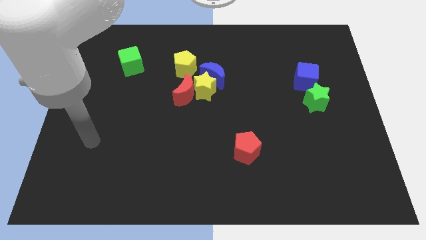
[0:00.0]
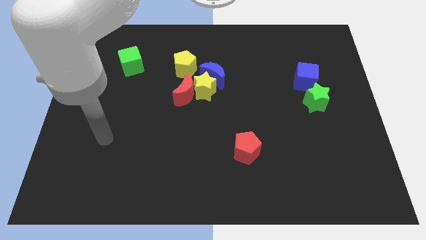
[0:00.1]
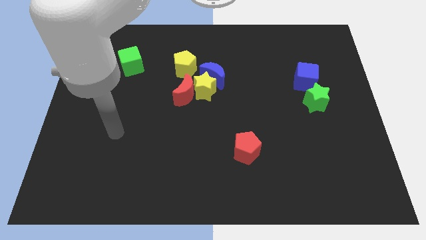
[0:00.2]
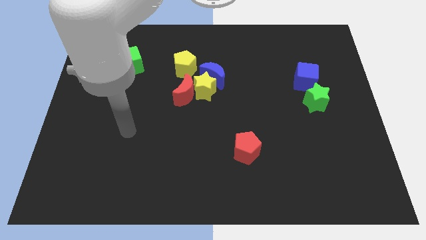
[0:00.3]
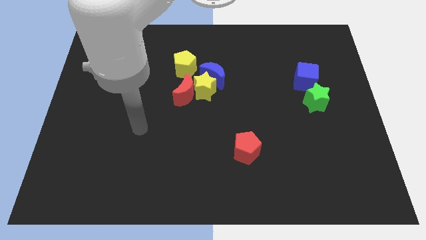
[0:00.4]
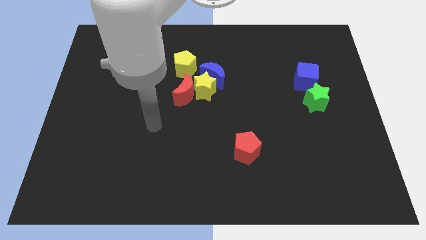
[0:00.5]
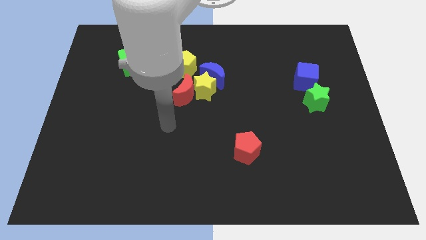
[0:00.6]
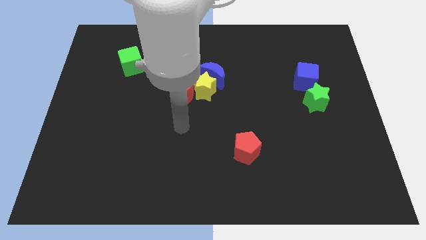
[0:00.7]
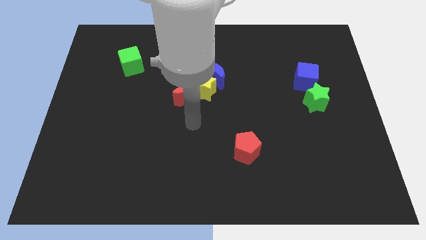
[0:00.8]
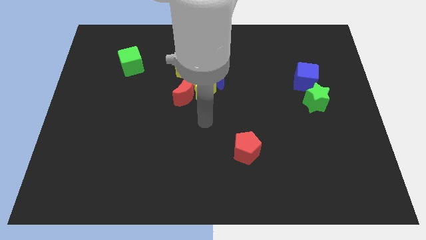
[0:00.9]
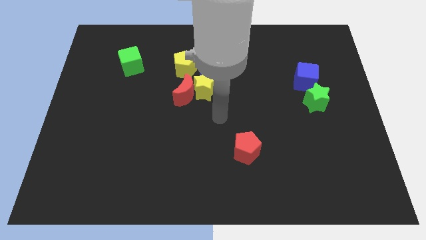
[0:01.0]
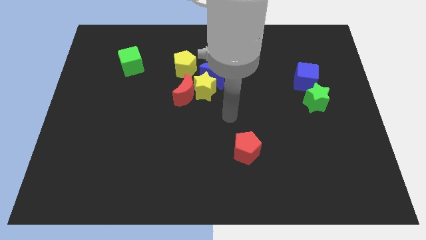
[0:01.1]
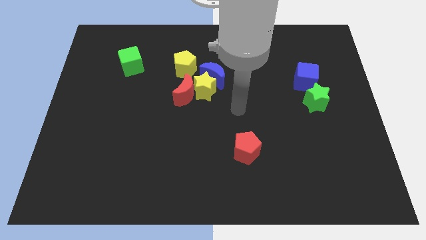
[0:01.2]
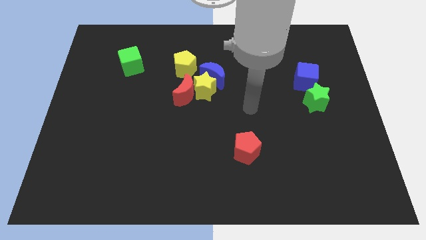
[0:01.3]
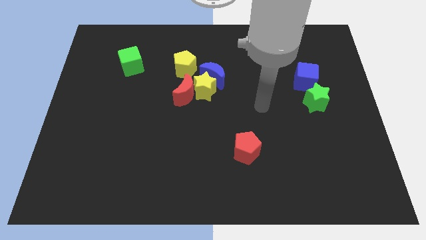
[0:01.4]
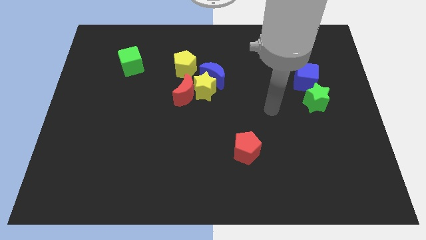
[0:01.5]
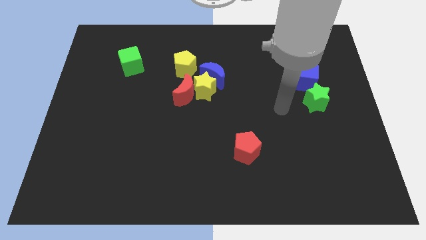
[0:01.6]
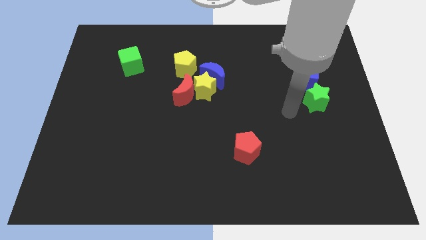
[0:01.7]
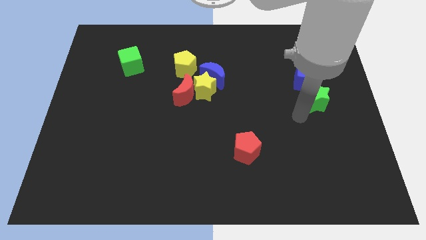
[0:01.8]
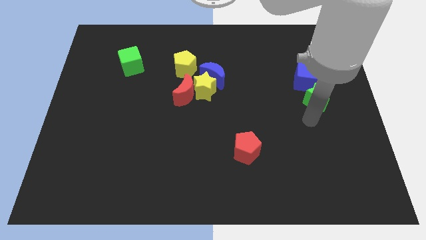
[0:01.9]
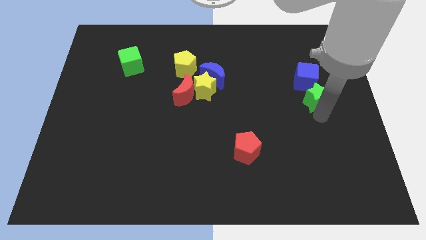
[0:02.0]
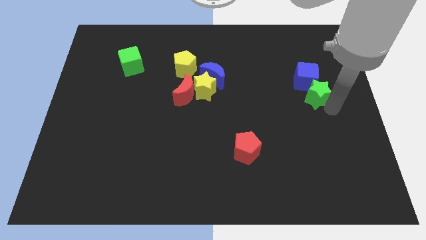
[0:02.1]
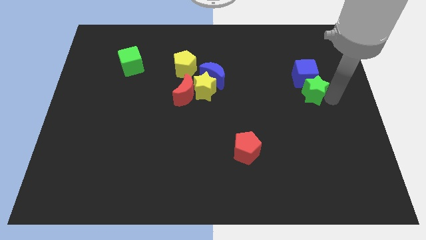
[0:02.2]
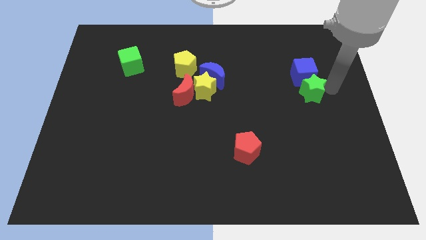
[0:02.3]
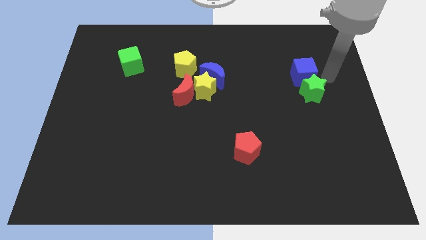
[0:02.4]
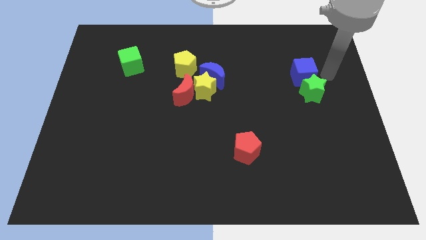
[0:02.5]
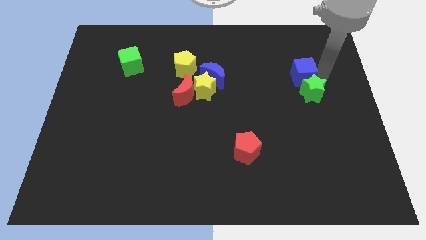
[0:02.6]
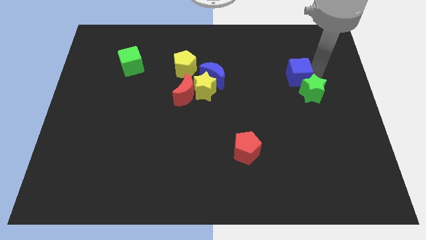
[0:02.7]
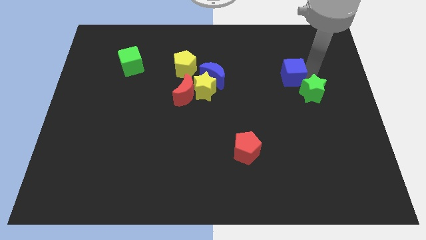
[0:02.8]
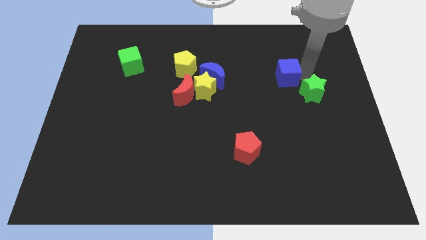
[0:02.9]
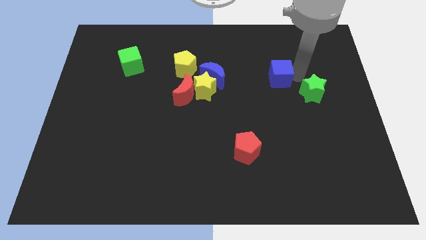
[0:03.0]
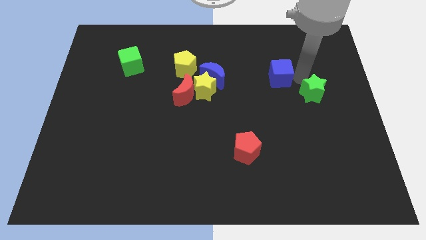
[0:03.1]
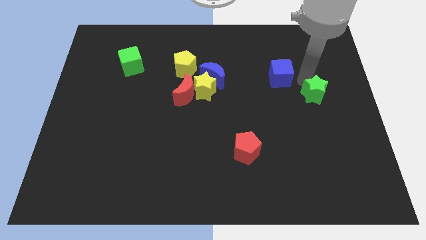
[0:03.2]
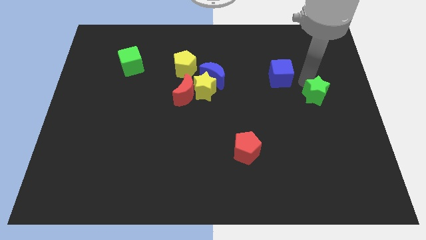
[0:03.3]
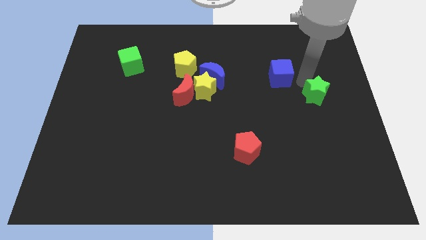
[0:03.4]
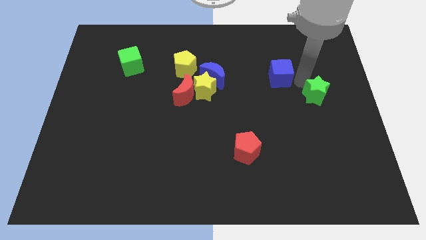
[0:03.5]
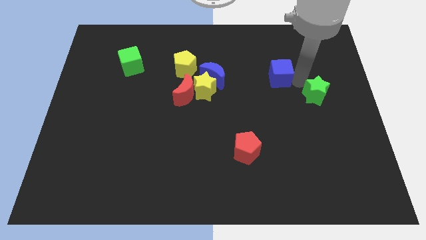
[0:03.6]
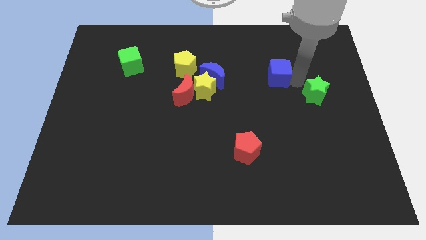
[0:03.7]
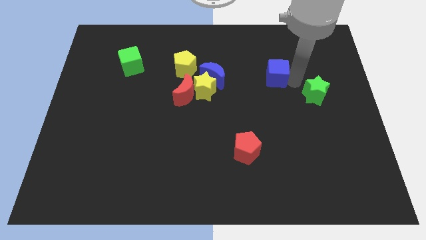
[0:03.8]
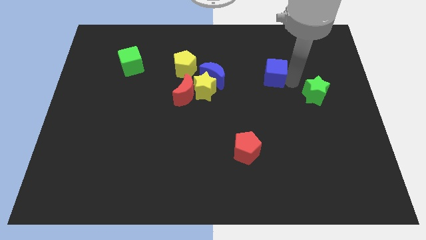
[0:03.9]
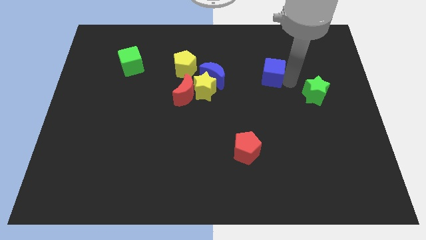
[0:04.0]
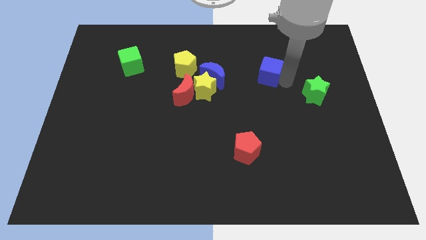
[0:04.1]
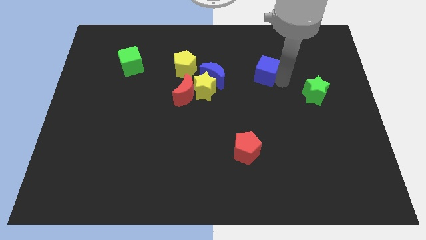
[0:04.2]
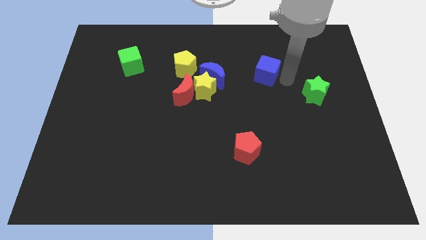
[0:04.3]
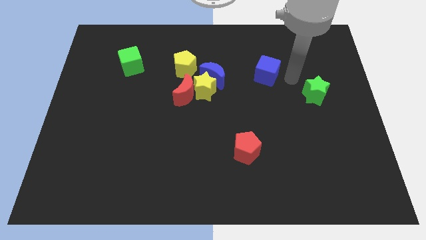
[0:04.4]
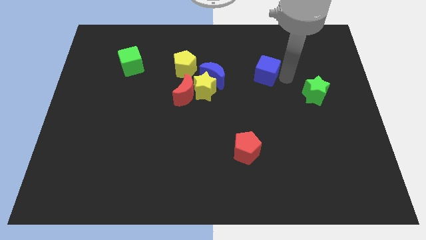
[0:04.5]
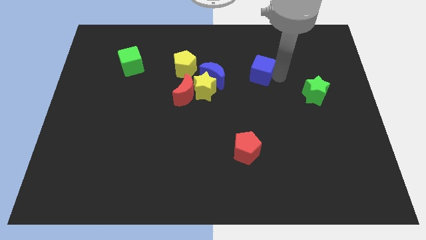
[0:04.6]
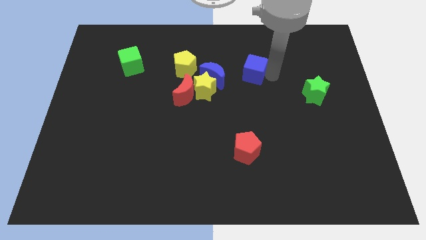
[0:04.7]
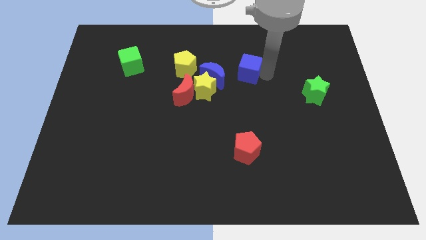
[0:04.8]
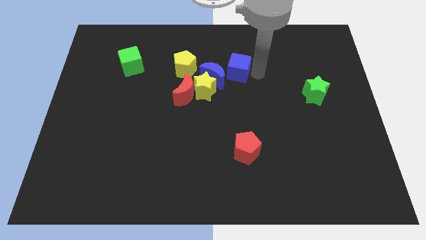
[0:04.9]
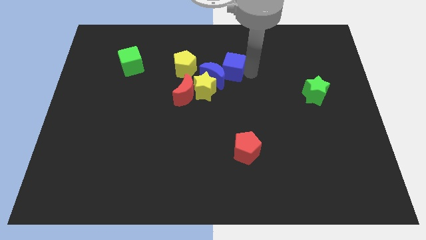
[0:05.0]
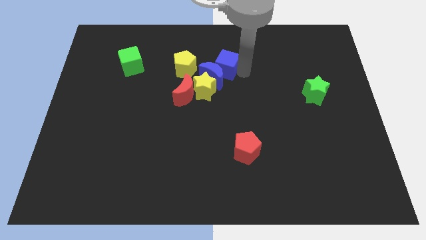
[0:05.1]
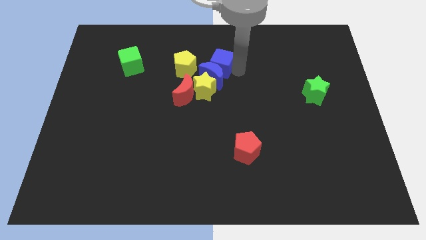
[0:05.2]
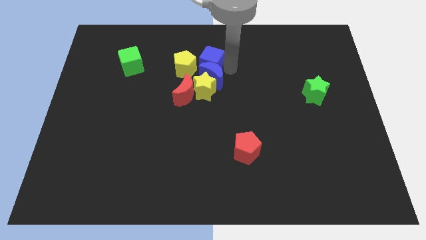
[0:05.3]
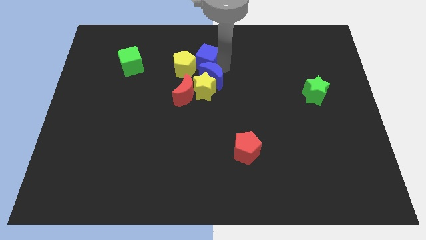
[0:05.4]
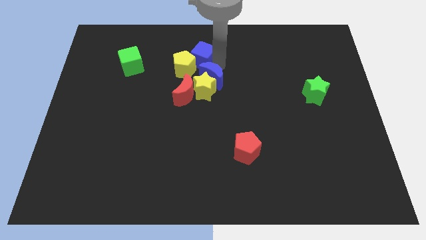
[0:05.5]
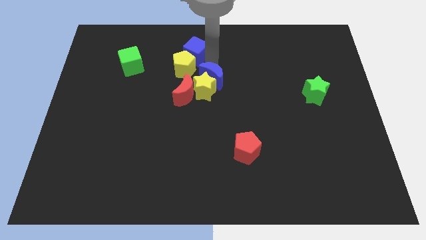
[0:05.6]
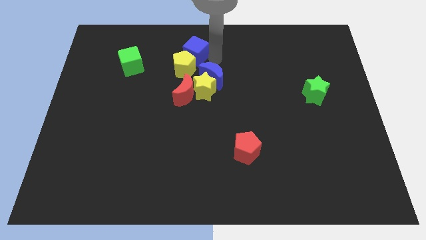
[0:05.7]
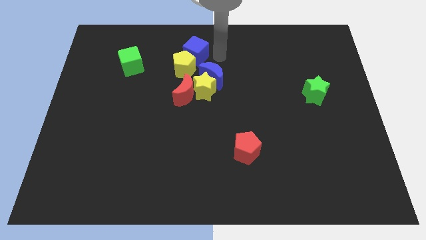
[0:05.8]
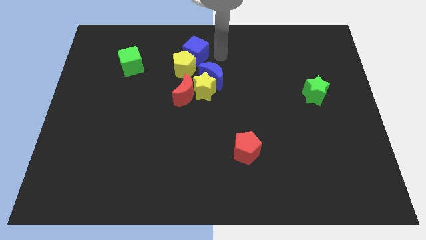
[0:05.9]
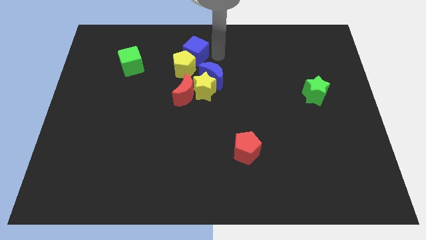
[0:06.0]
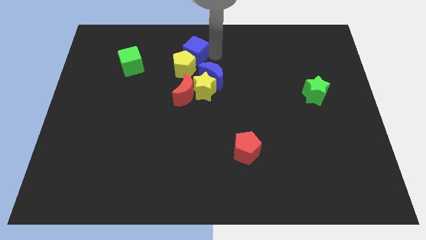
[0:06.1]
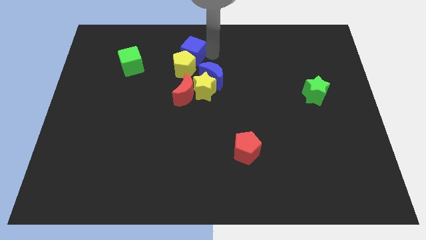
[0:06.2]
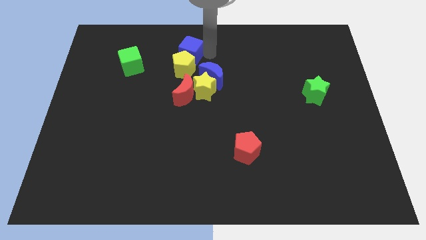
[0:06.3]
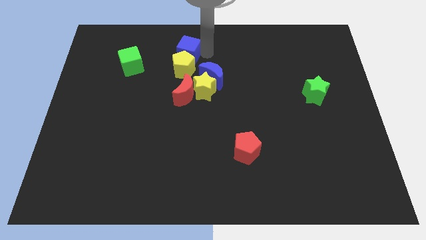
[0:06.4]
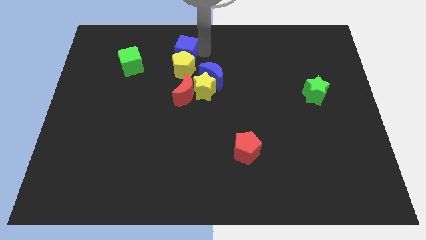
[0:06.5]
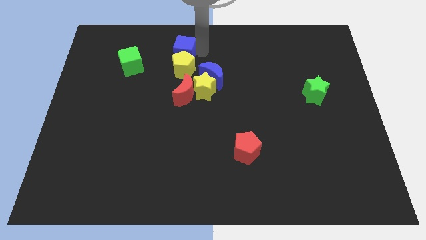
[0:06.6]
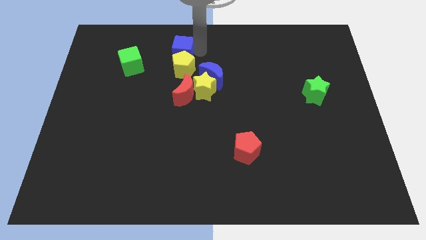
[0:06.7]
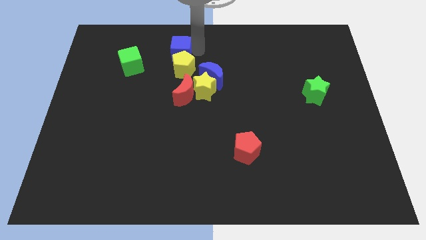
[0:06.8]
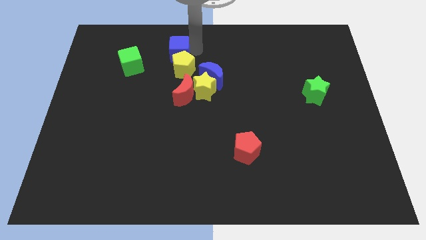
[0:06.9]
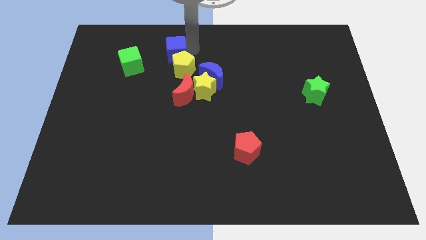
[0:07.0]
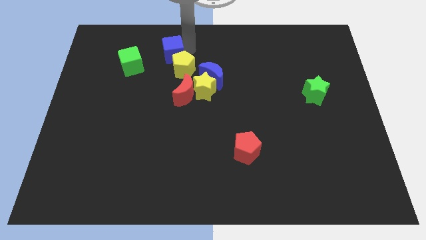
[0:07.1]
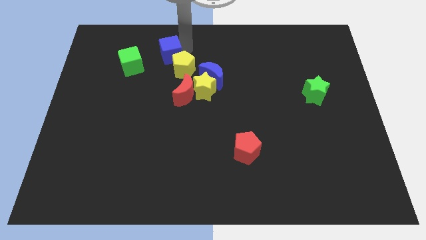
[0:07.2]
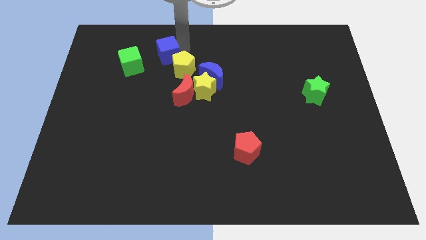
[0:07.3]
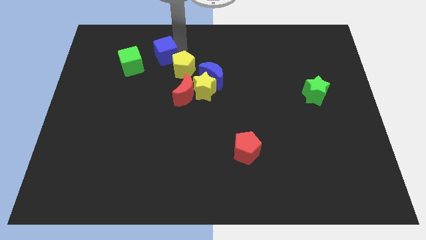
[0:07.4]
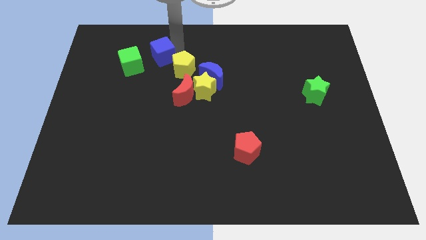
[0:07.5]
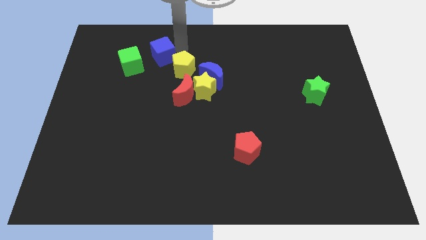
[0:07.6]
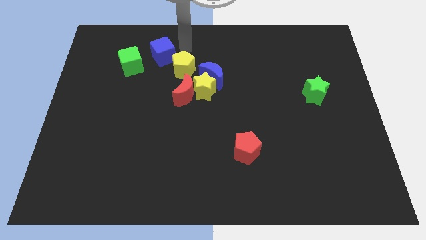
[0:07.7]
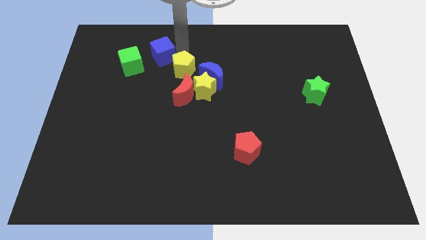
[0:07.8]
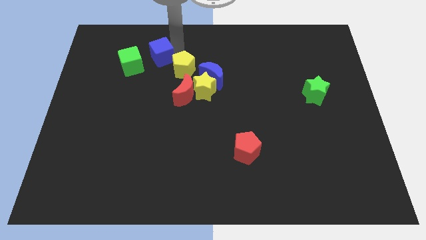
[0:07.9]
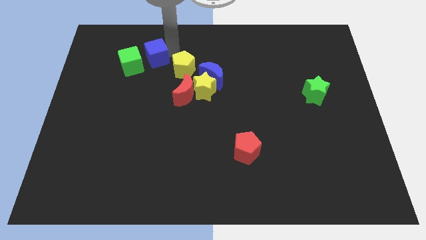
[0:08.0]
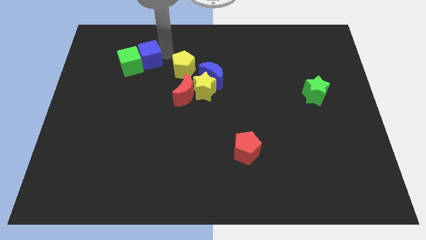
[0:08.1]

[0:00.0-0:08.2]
push the blue cube to the green cube

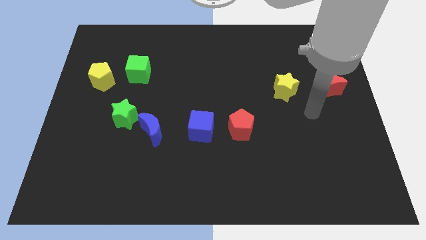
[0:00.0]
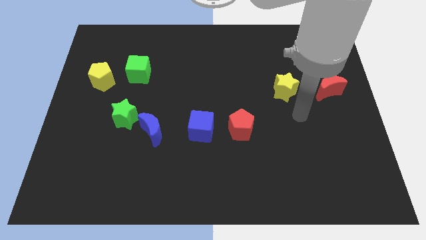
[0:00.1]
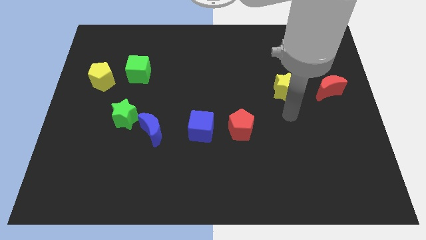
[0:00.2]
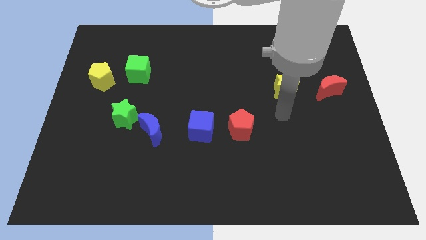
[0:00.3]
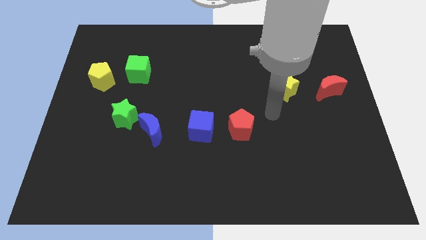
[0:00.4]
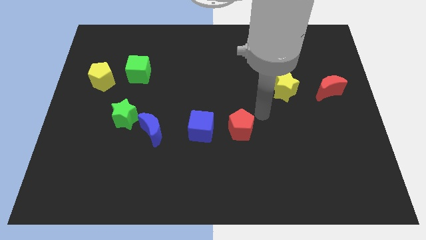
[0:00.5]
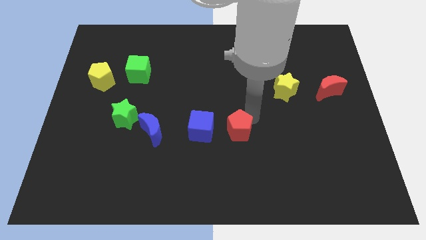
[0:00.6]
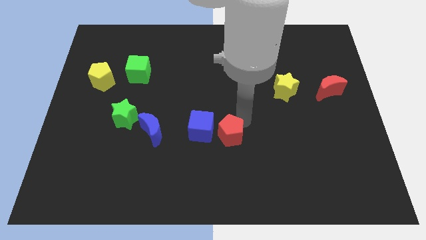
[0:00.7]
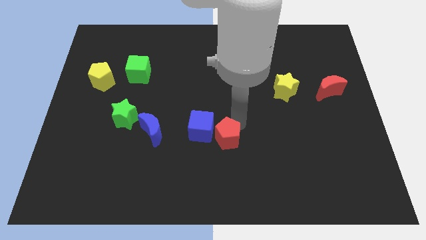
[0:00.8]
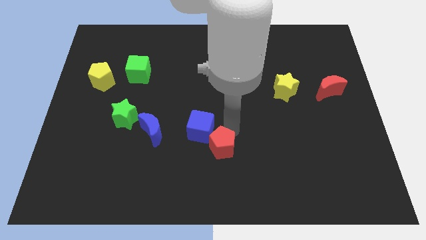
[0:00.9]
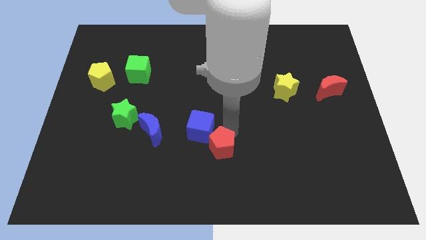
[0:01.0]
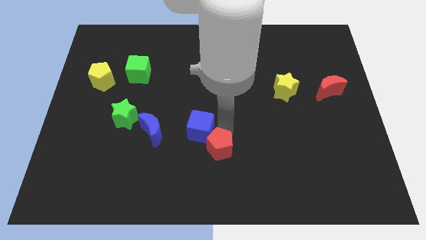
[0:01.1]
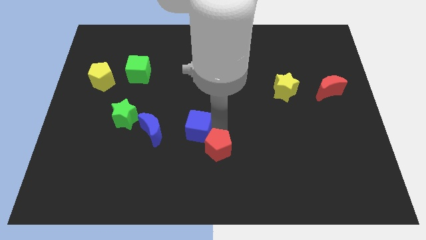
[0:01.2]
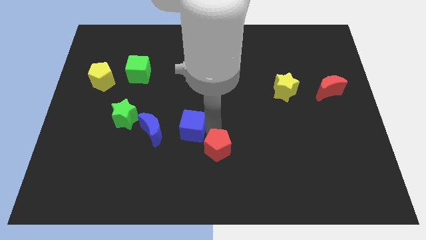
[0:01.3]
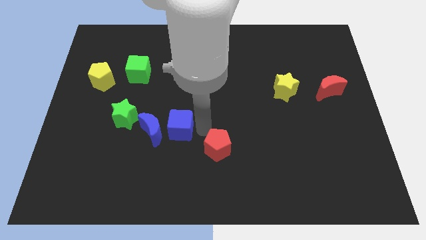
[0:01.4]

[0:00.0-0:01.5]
move the blue cube towards the blue moon
